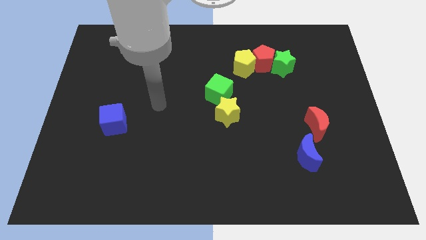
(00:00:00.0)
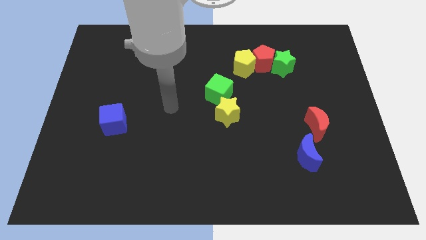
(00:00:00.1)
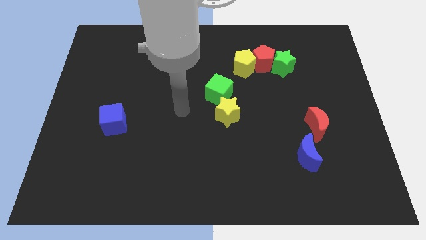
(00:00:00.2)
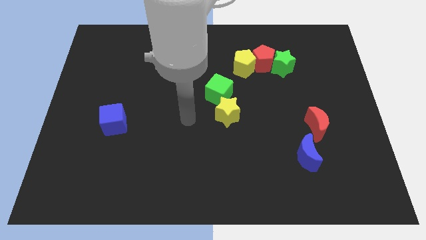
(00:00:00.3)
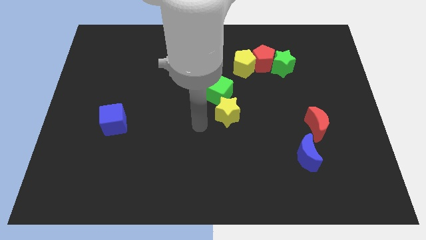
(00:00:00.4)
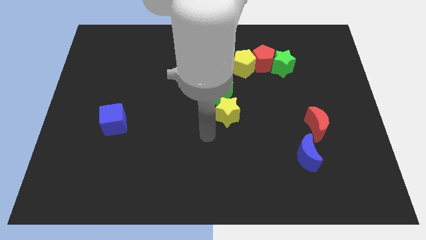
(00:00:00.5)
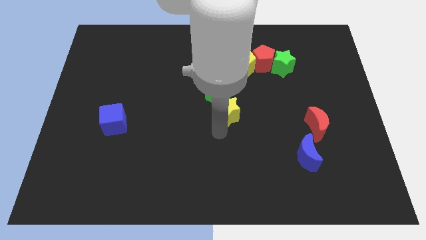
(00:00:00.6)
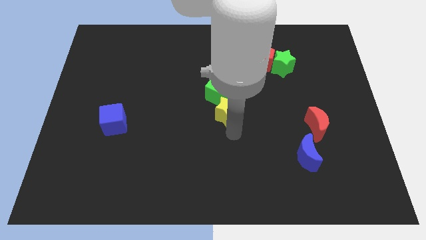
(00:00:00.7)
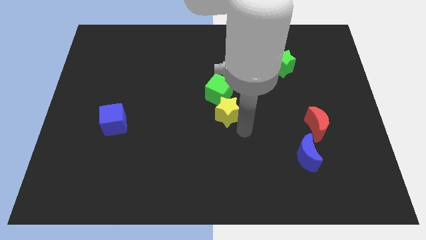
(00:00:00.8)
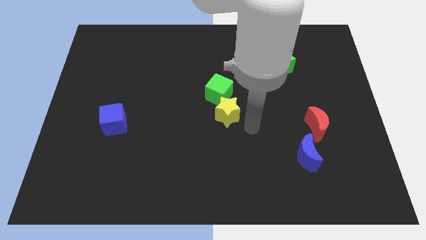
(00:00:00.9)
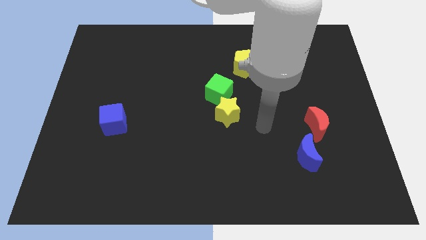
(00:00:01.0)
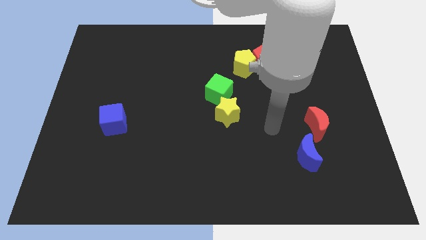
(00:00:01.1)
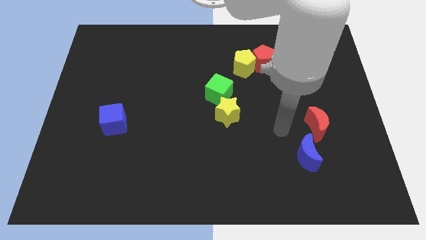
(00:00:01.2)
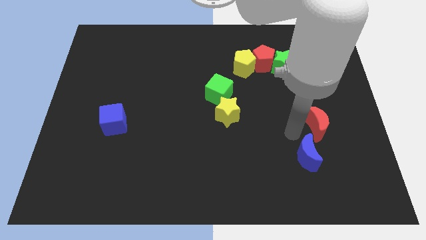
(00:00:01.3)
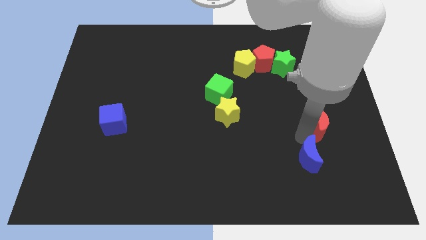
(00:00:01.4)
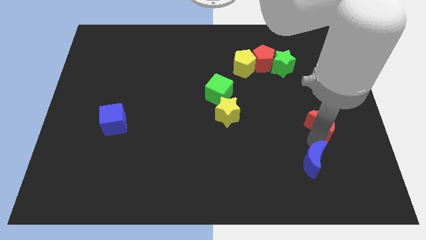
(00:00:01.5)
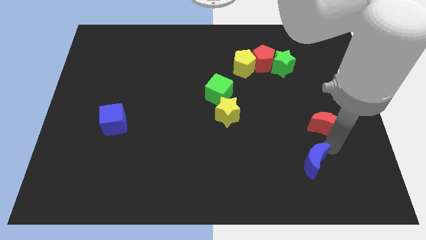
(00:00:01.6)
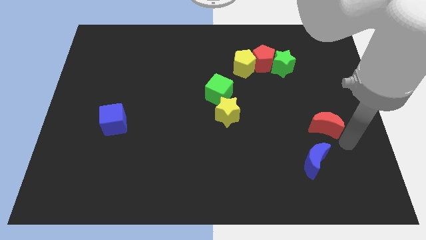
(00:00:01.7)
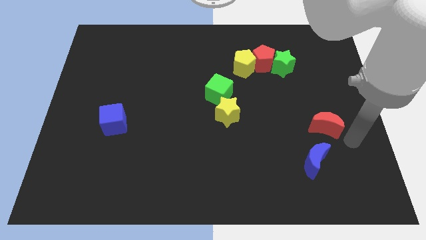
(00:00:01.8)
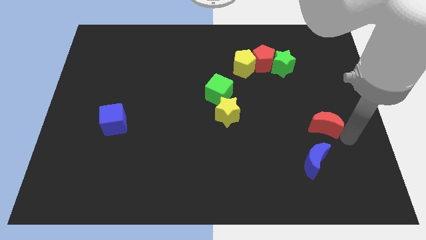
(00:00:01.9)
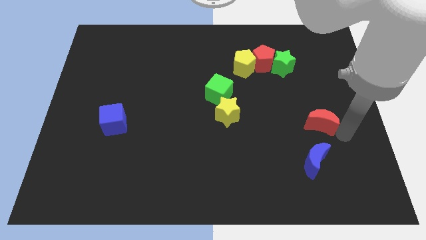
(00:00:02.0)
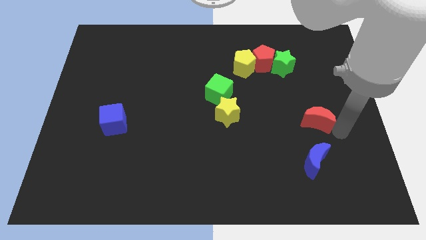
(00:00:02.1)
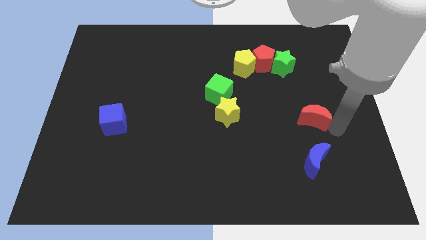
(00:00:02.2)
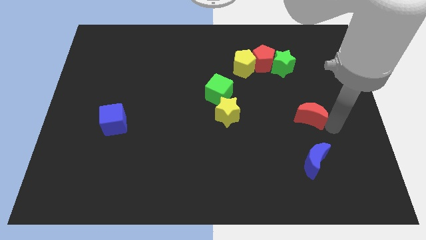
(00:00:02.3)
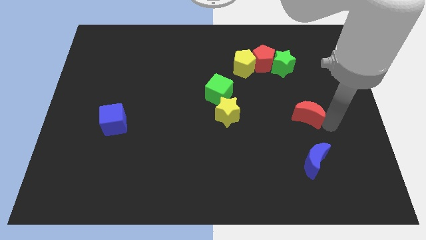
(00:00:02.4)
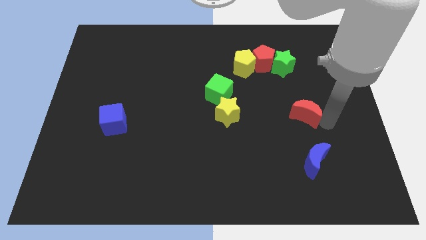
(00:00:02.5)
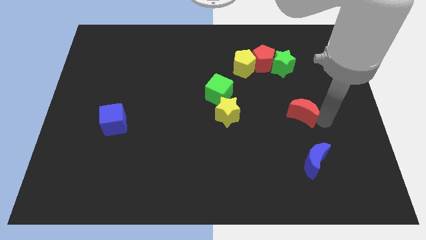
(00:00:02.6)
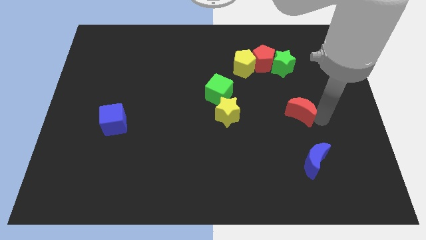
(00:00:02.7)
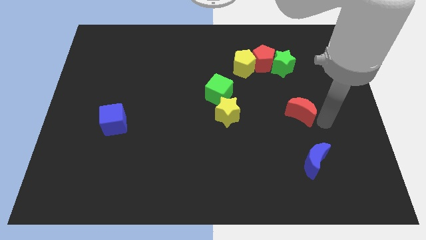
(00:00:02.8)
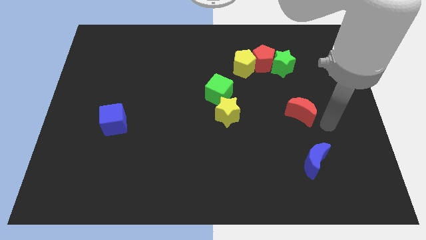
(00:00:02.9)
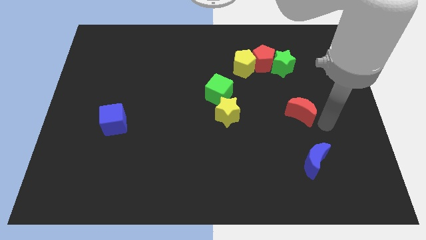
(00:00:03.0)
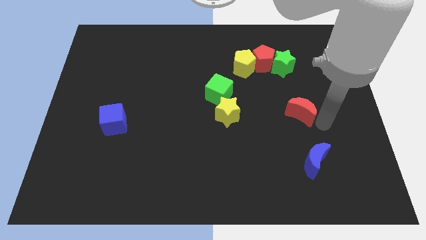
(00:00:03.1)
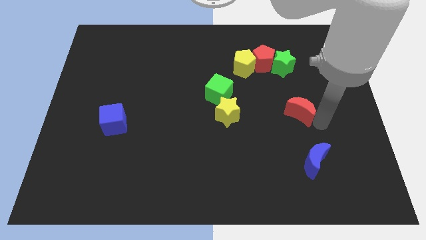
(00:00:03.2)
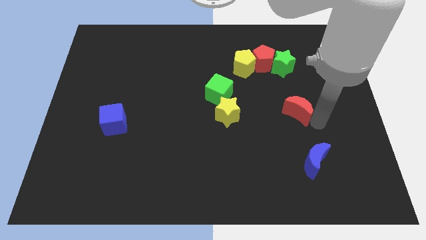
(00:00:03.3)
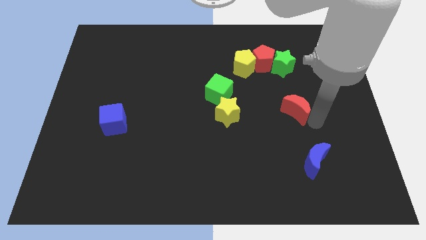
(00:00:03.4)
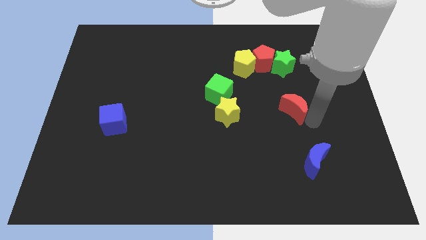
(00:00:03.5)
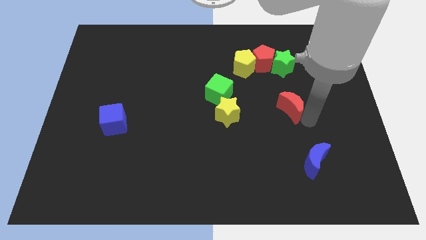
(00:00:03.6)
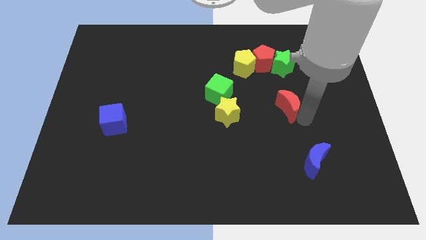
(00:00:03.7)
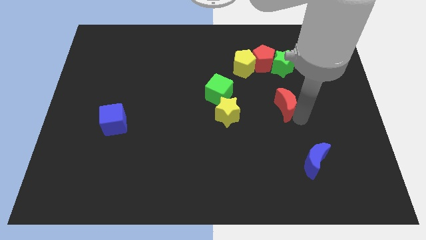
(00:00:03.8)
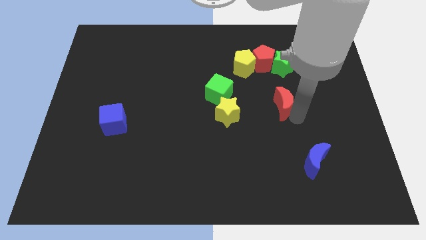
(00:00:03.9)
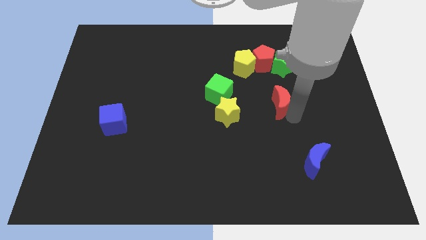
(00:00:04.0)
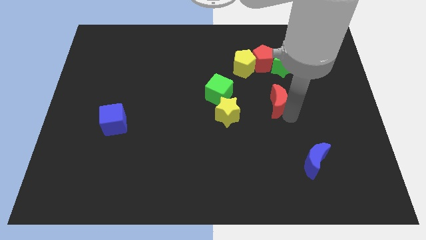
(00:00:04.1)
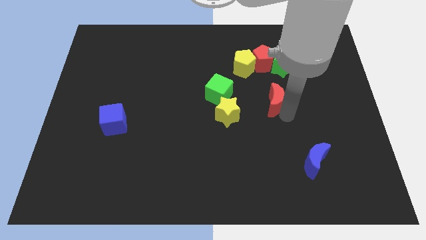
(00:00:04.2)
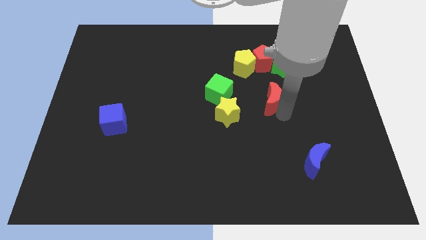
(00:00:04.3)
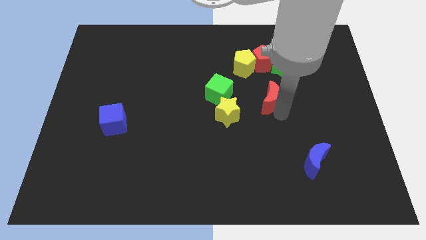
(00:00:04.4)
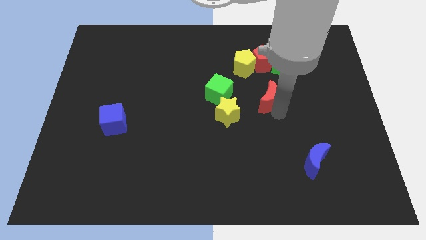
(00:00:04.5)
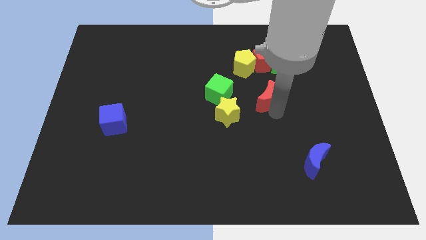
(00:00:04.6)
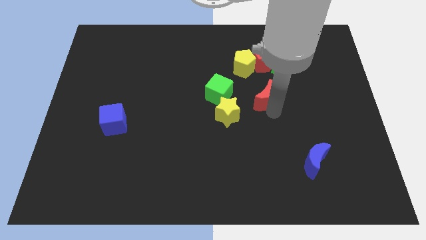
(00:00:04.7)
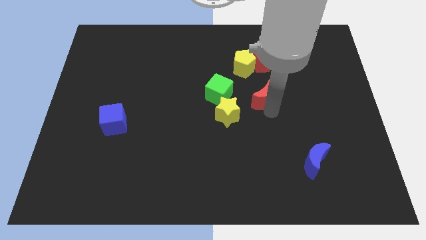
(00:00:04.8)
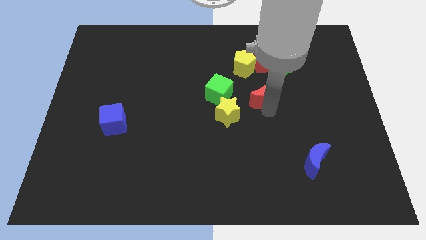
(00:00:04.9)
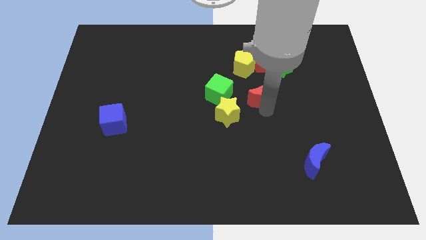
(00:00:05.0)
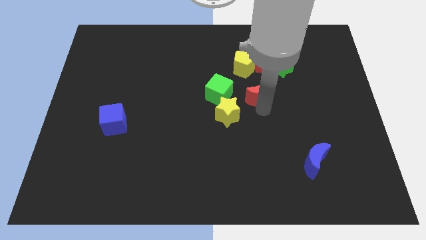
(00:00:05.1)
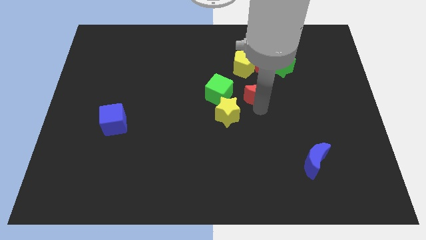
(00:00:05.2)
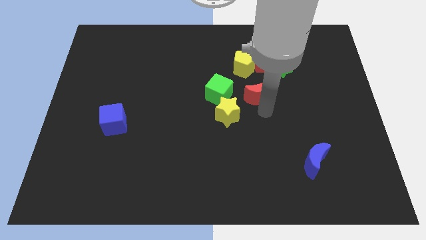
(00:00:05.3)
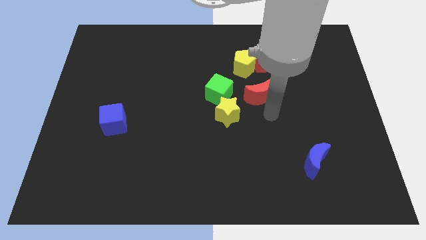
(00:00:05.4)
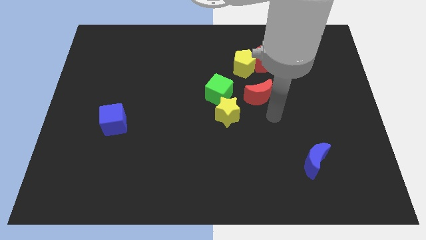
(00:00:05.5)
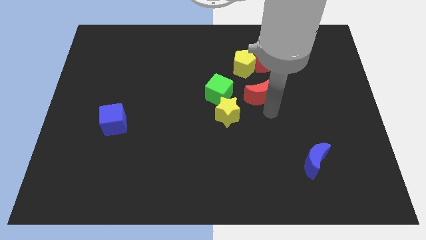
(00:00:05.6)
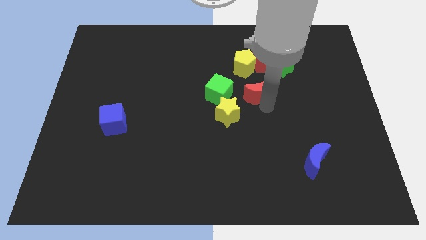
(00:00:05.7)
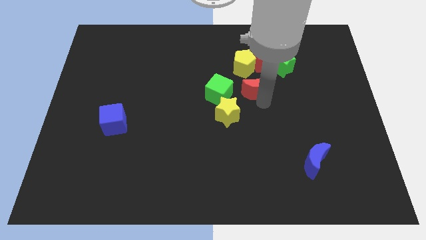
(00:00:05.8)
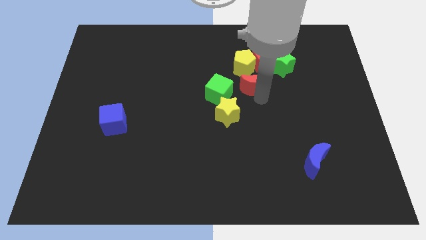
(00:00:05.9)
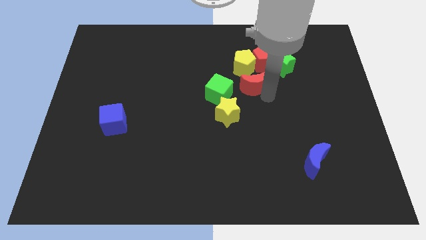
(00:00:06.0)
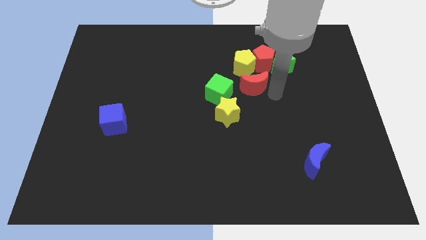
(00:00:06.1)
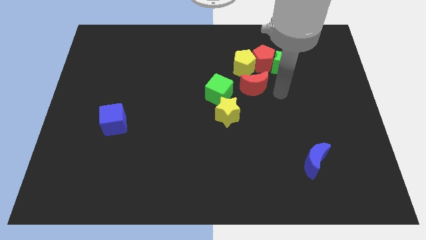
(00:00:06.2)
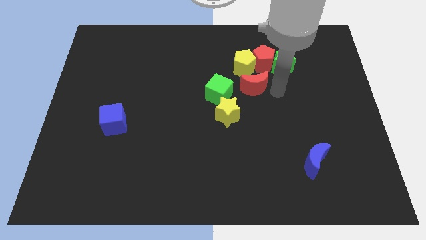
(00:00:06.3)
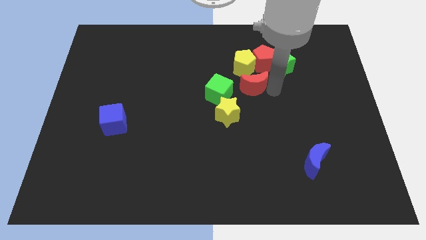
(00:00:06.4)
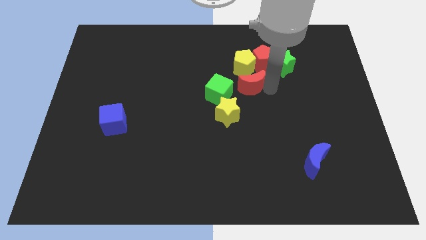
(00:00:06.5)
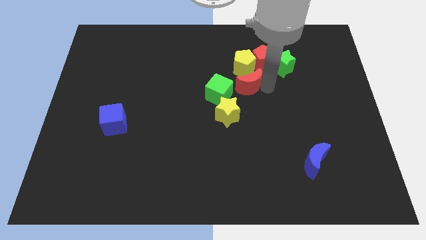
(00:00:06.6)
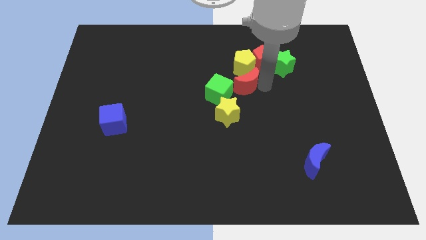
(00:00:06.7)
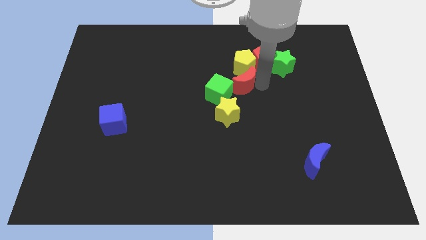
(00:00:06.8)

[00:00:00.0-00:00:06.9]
push the red moon diagonally down and to the left of the yellow pentagon
